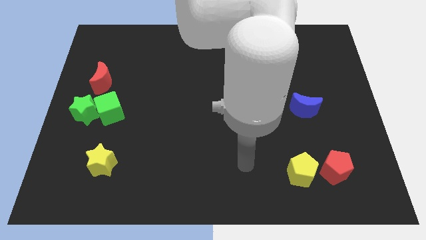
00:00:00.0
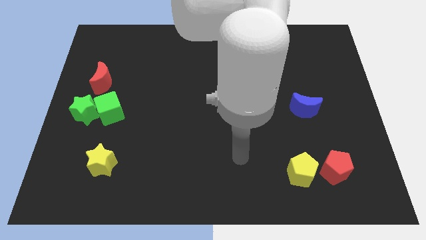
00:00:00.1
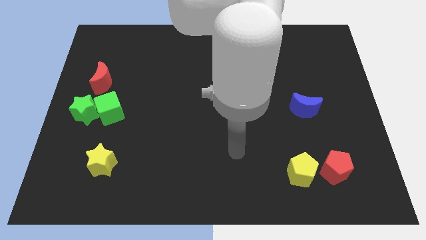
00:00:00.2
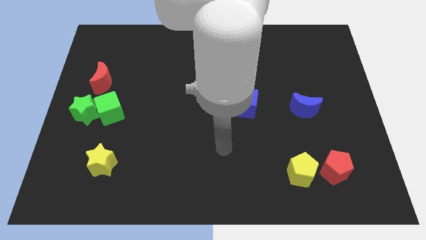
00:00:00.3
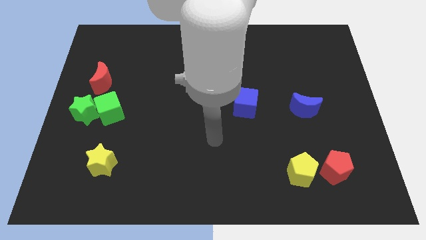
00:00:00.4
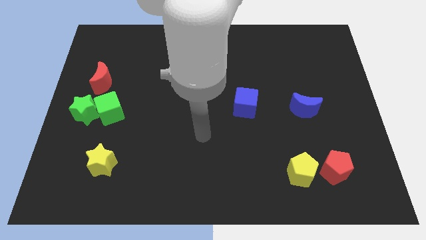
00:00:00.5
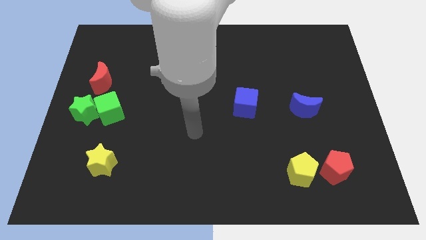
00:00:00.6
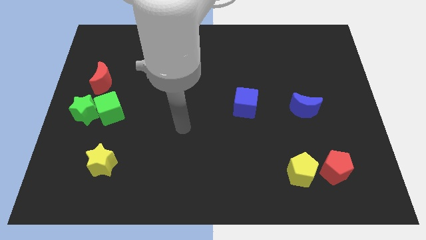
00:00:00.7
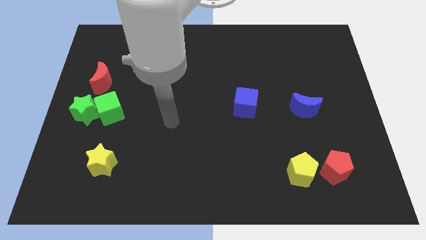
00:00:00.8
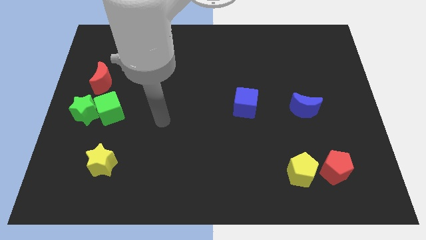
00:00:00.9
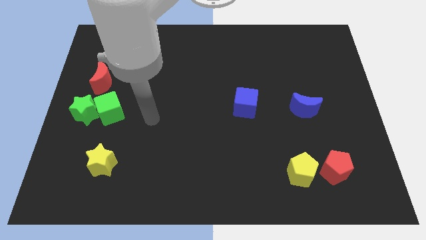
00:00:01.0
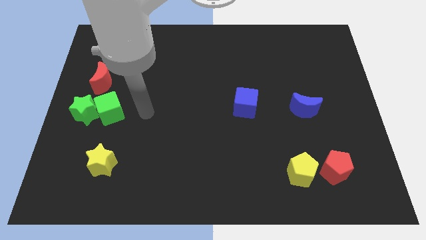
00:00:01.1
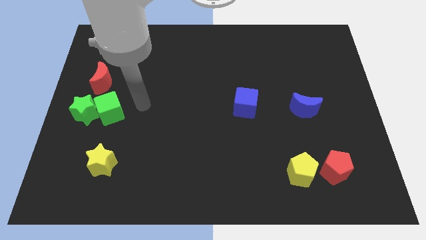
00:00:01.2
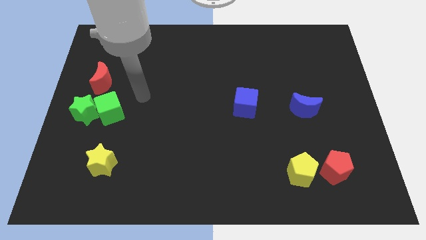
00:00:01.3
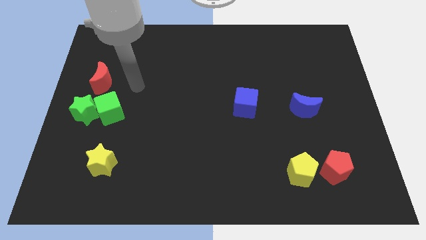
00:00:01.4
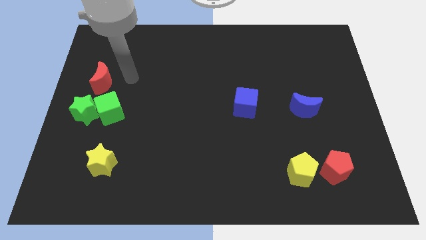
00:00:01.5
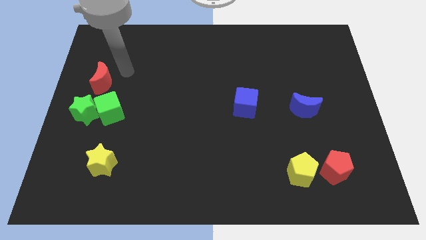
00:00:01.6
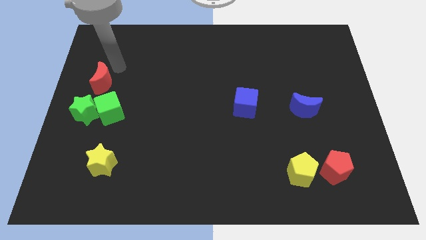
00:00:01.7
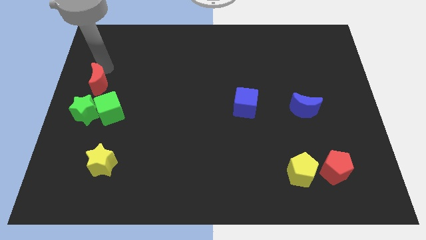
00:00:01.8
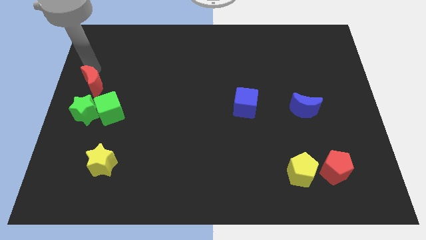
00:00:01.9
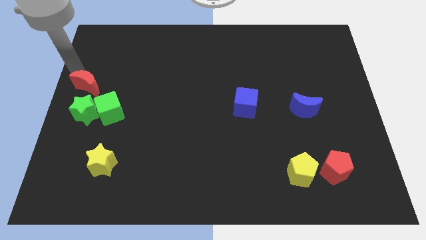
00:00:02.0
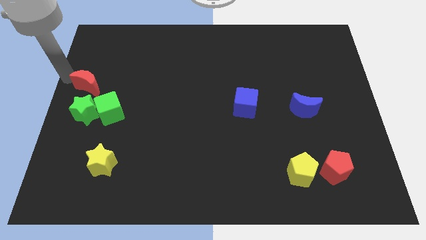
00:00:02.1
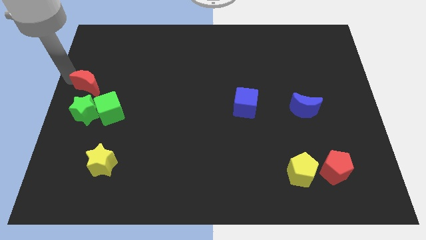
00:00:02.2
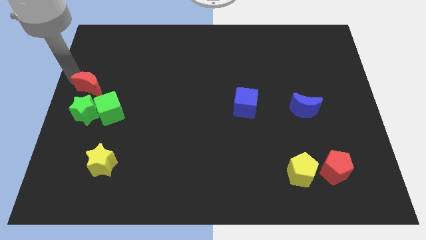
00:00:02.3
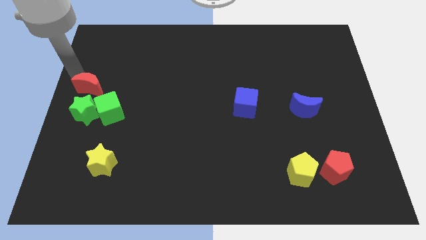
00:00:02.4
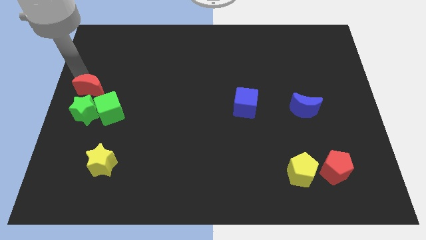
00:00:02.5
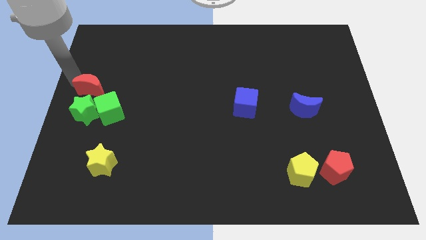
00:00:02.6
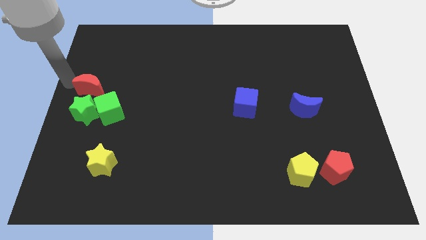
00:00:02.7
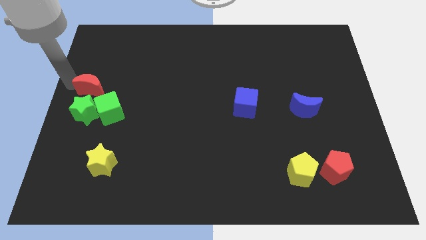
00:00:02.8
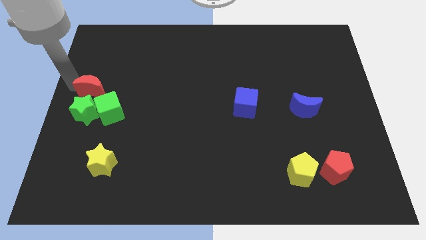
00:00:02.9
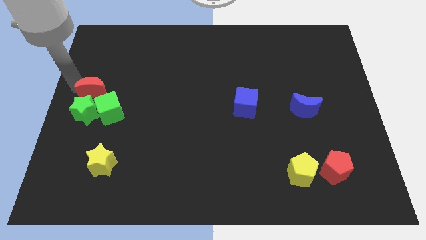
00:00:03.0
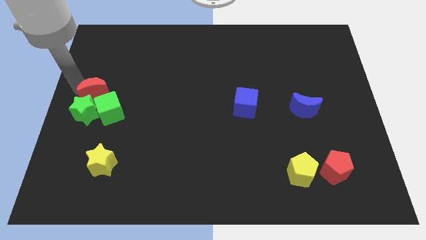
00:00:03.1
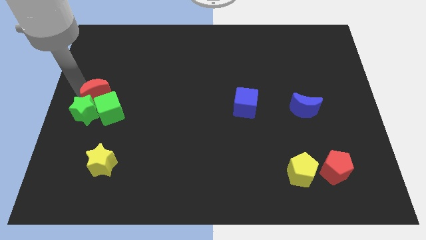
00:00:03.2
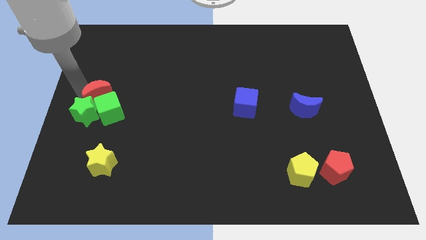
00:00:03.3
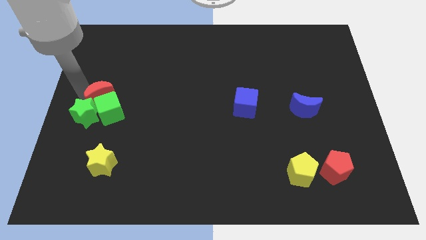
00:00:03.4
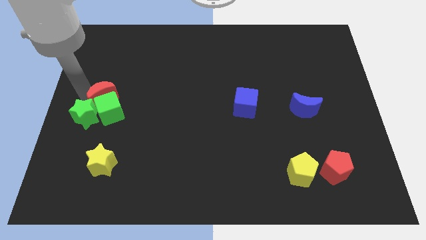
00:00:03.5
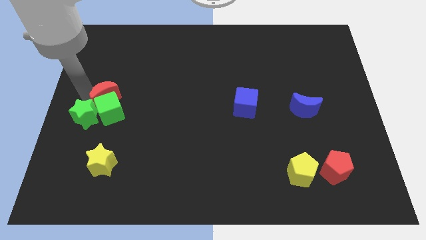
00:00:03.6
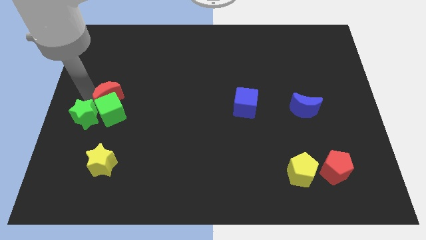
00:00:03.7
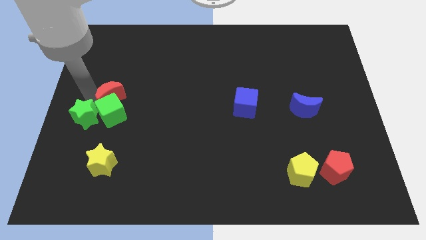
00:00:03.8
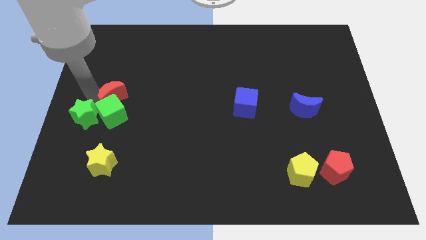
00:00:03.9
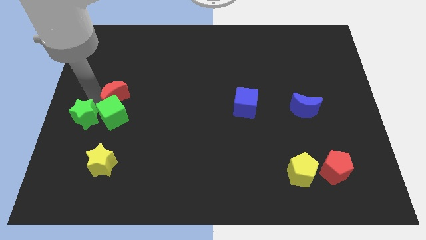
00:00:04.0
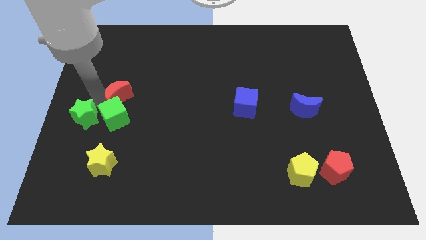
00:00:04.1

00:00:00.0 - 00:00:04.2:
push the red moon down and then to the right a little

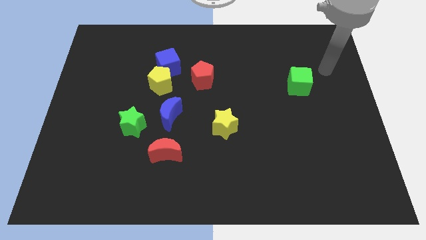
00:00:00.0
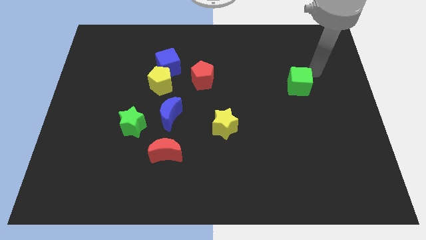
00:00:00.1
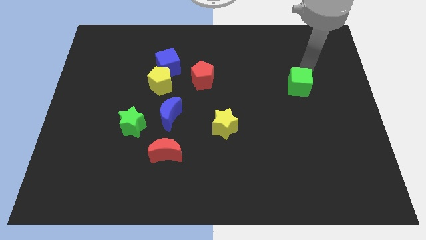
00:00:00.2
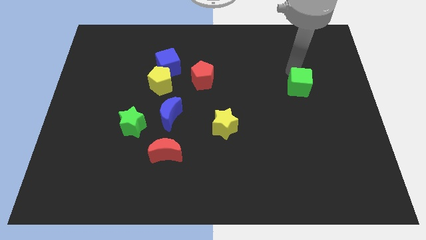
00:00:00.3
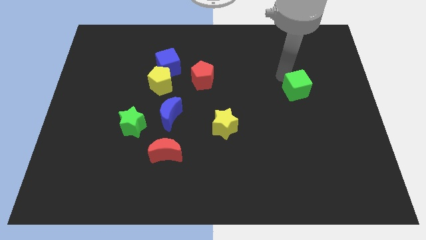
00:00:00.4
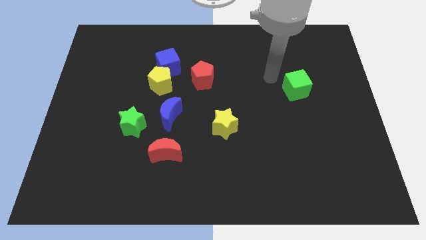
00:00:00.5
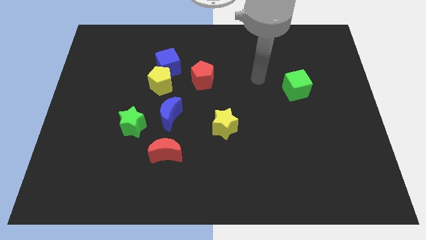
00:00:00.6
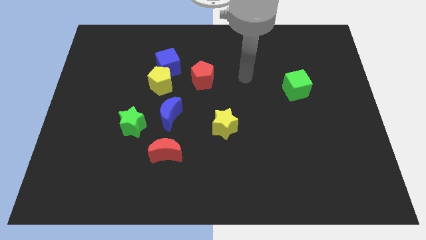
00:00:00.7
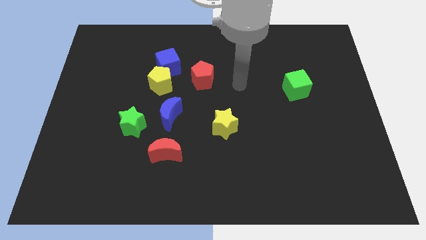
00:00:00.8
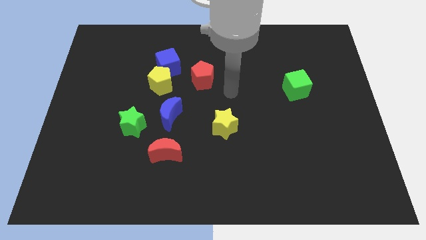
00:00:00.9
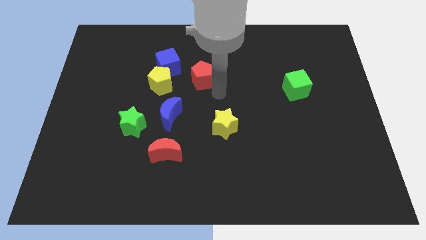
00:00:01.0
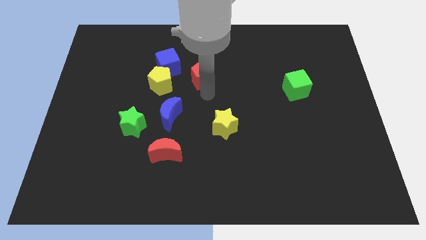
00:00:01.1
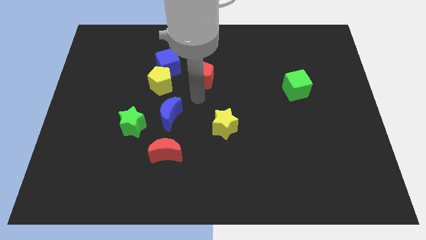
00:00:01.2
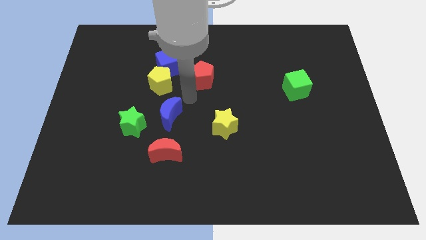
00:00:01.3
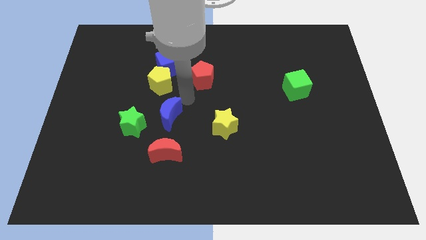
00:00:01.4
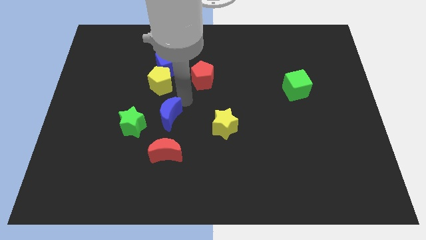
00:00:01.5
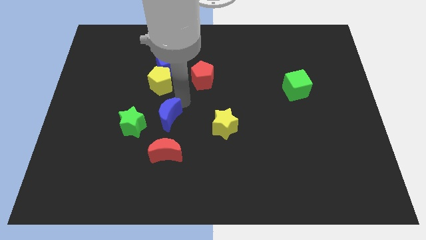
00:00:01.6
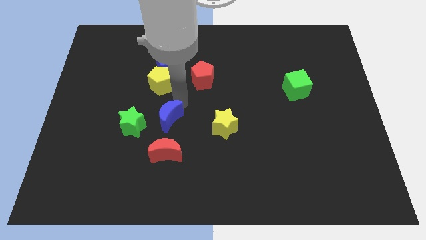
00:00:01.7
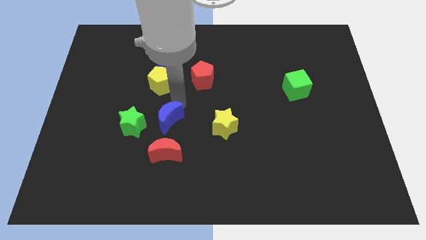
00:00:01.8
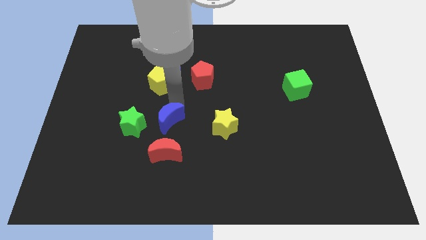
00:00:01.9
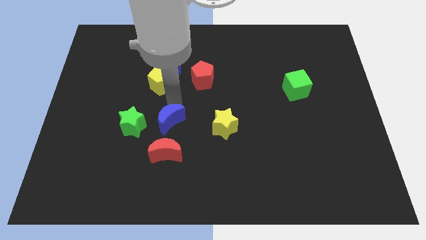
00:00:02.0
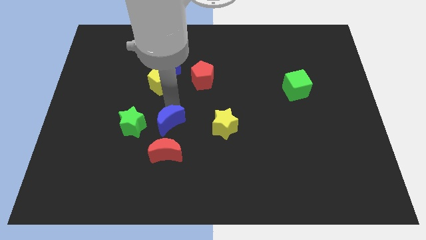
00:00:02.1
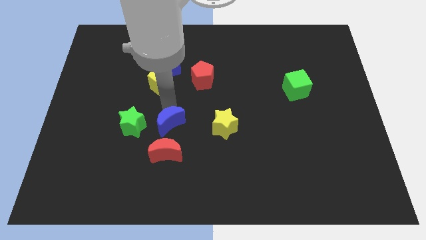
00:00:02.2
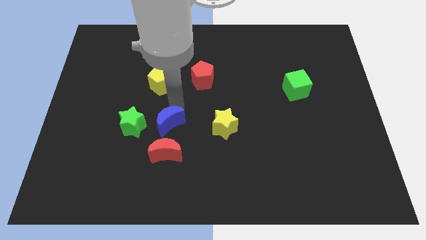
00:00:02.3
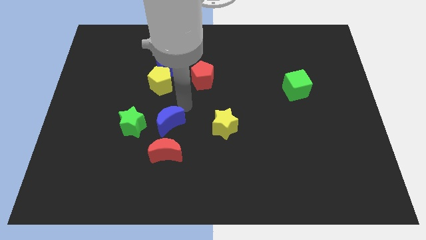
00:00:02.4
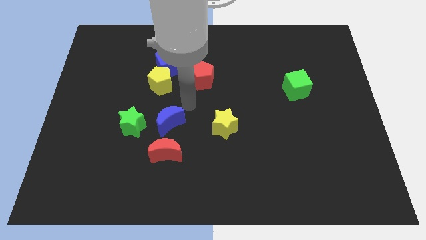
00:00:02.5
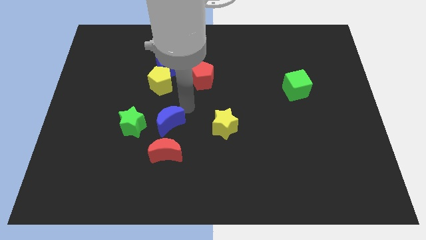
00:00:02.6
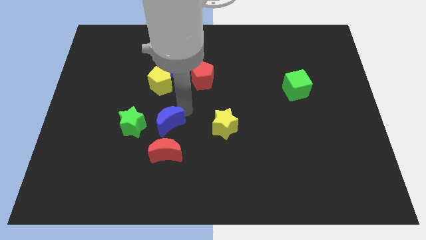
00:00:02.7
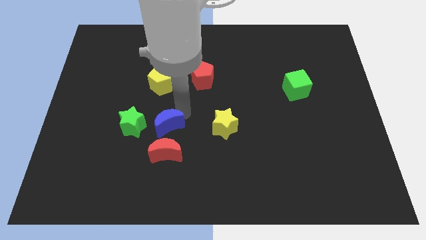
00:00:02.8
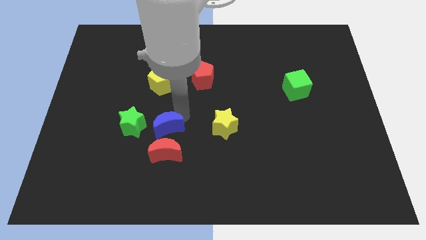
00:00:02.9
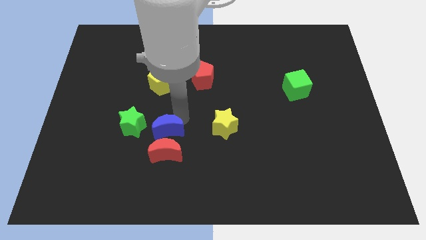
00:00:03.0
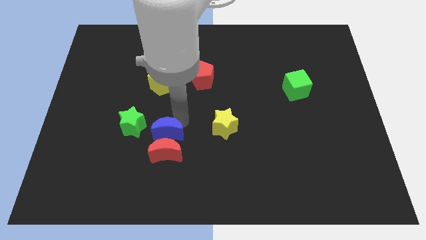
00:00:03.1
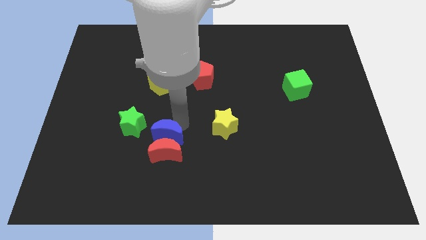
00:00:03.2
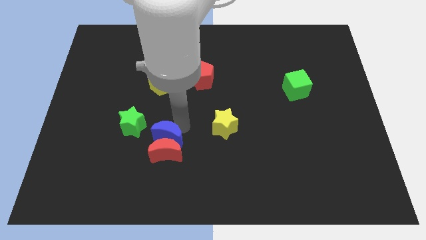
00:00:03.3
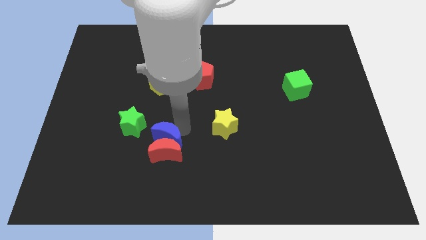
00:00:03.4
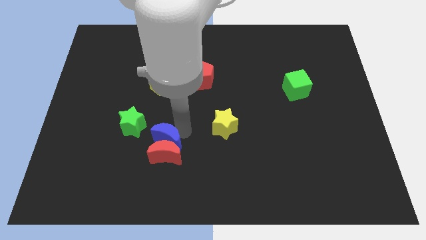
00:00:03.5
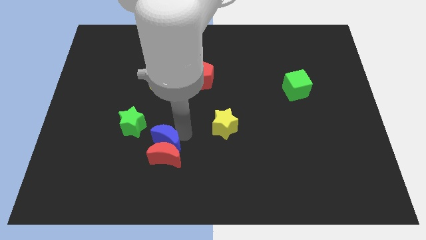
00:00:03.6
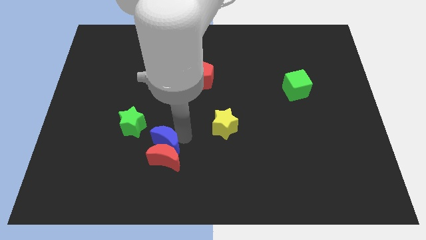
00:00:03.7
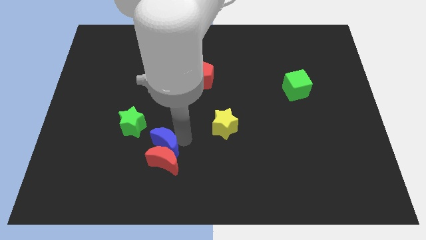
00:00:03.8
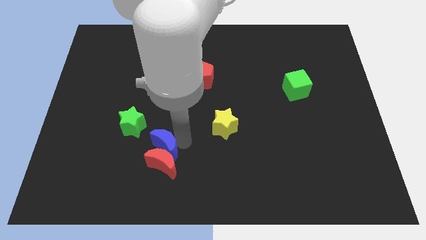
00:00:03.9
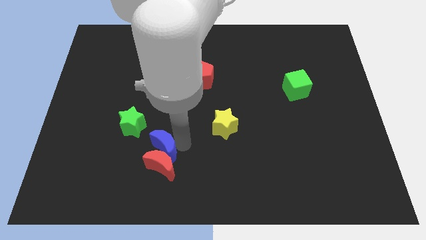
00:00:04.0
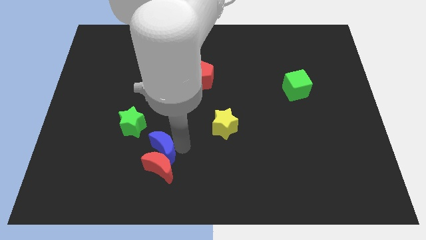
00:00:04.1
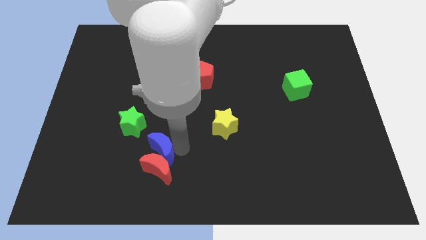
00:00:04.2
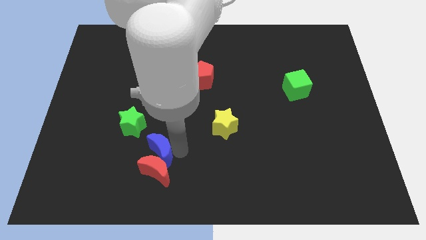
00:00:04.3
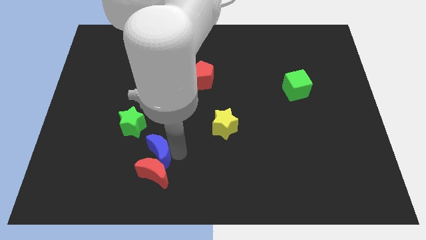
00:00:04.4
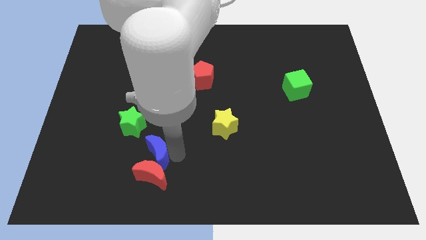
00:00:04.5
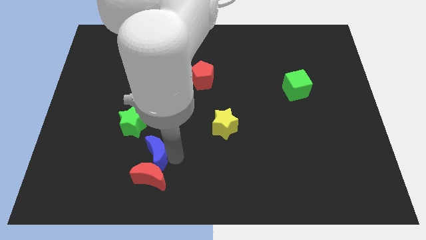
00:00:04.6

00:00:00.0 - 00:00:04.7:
push the blue moon somewhat down and left
